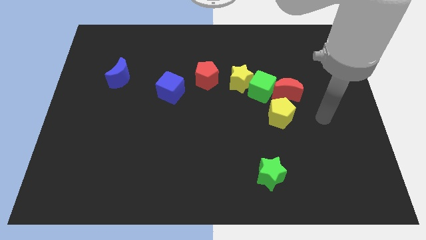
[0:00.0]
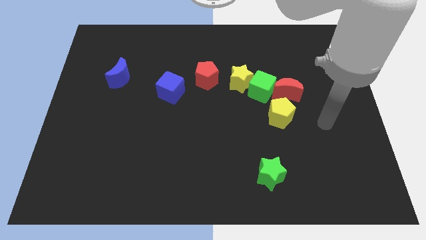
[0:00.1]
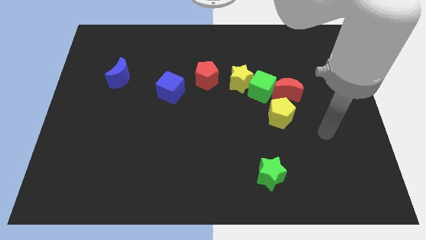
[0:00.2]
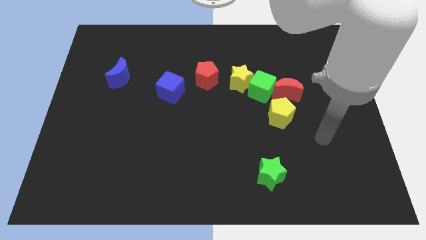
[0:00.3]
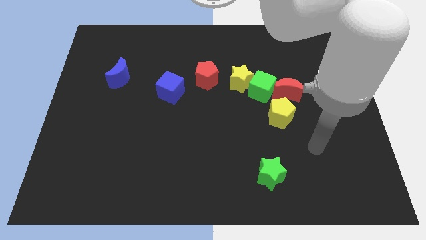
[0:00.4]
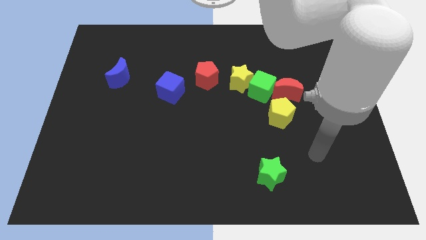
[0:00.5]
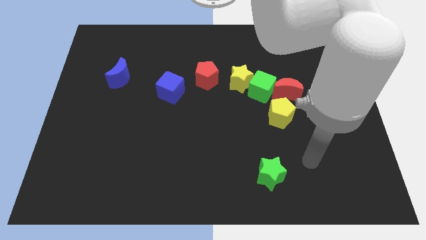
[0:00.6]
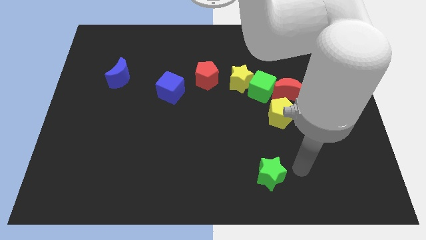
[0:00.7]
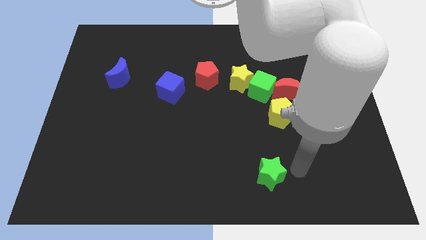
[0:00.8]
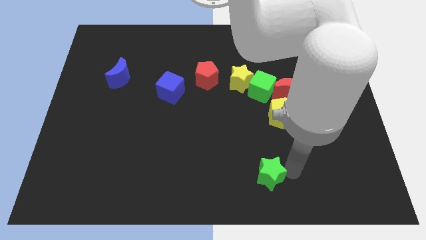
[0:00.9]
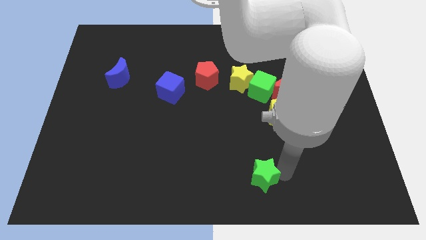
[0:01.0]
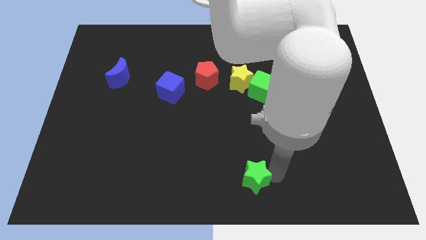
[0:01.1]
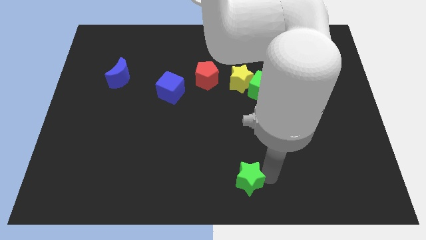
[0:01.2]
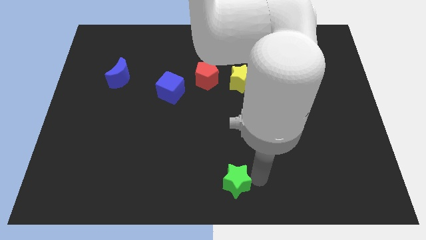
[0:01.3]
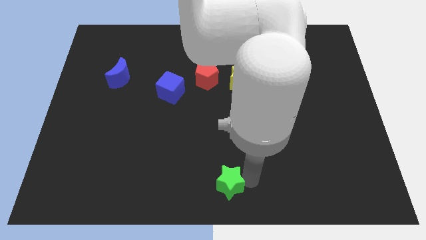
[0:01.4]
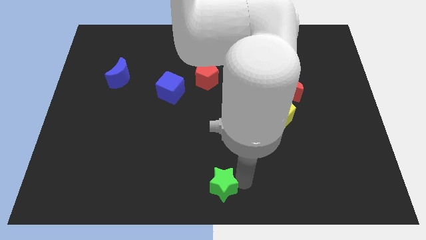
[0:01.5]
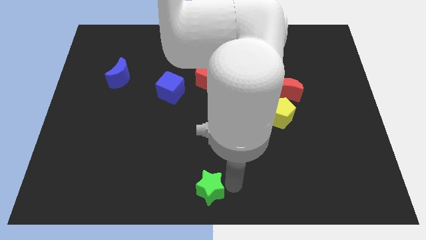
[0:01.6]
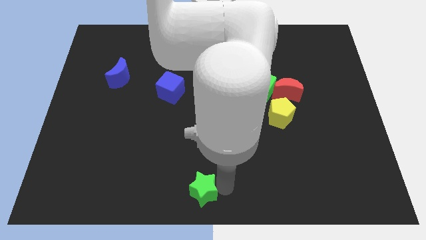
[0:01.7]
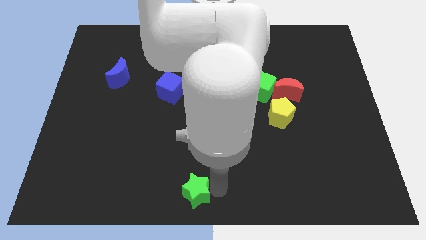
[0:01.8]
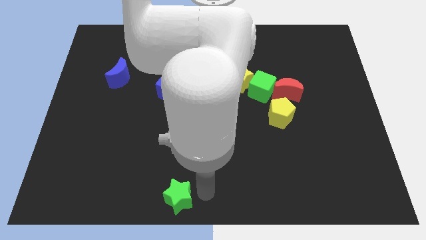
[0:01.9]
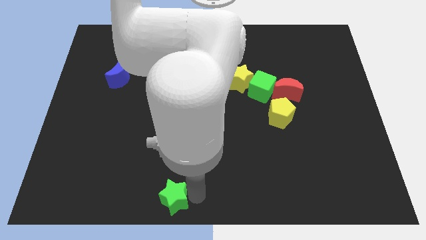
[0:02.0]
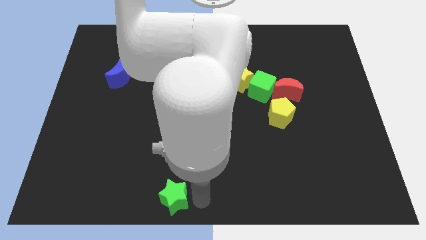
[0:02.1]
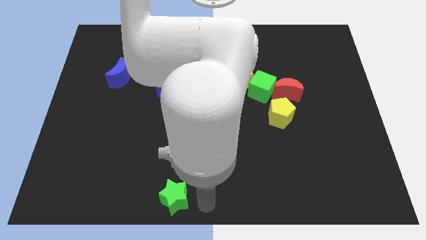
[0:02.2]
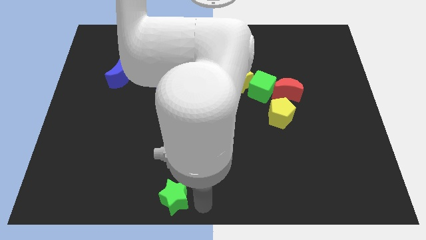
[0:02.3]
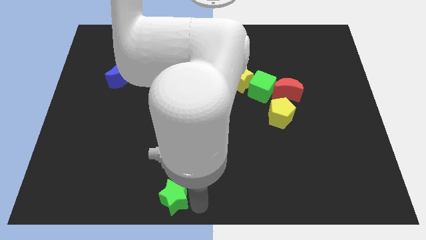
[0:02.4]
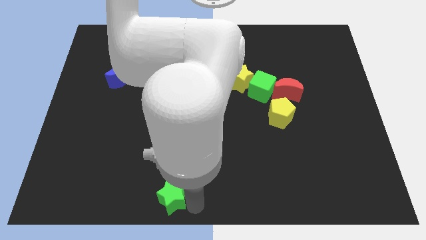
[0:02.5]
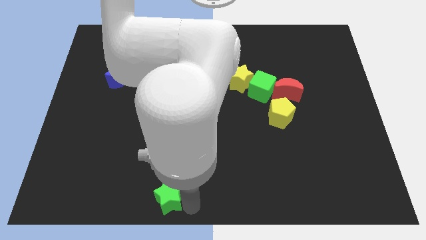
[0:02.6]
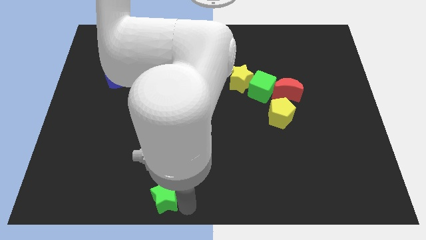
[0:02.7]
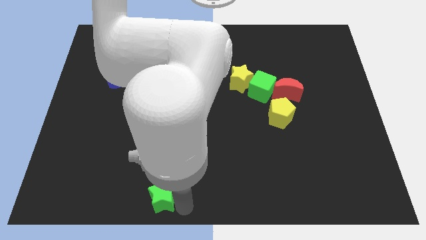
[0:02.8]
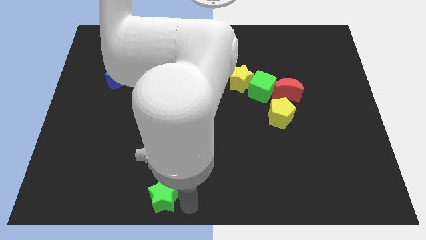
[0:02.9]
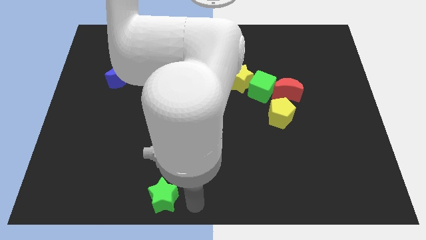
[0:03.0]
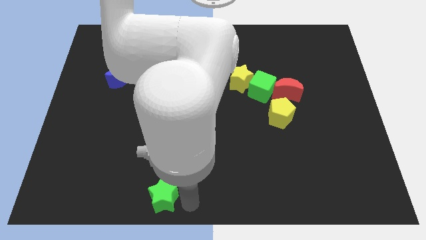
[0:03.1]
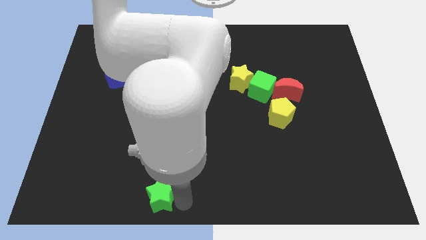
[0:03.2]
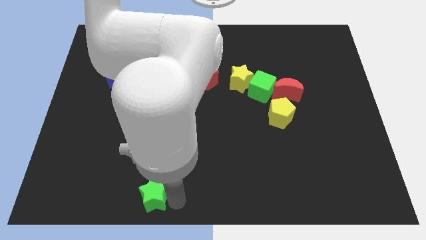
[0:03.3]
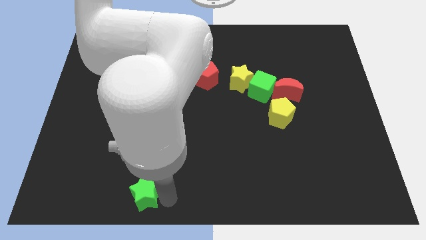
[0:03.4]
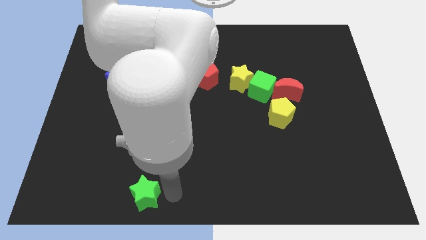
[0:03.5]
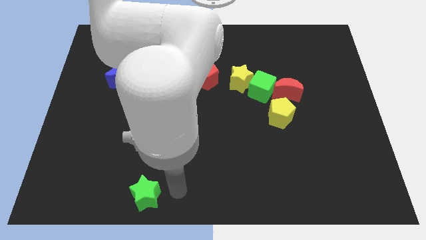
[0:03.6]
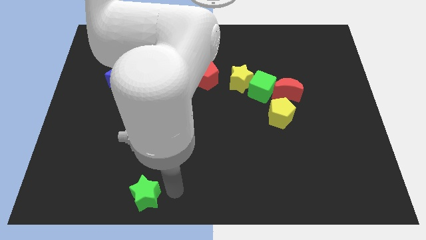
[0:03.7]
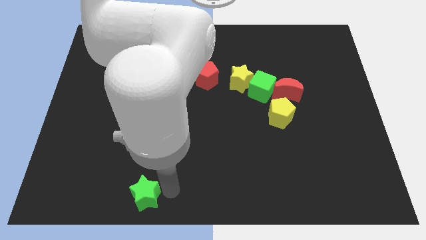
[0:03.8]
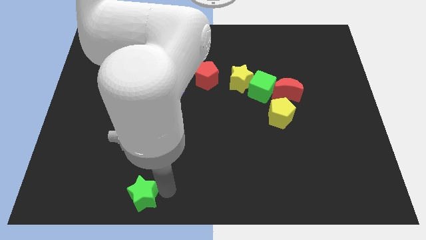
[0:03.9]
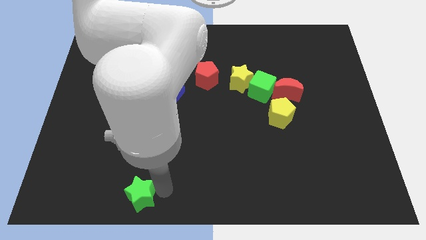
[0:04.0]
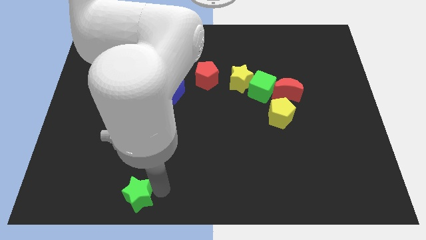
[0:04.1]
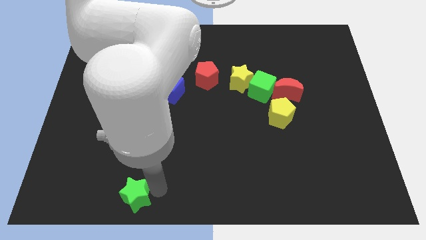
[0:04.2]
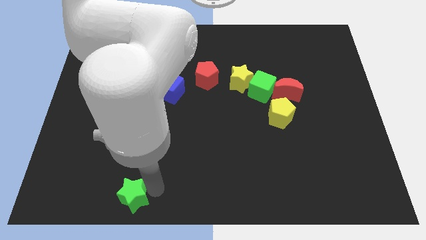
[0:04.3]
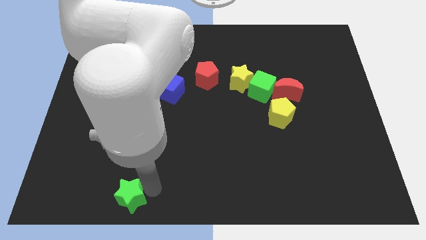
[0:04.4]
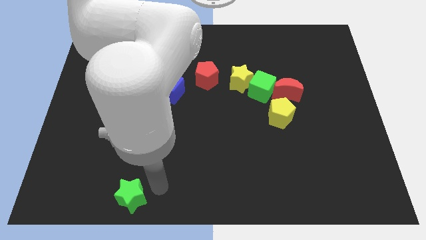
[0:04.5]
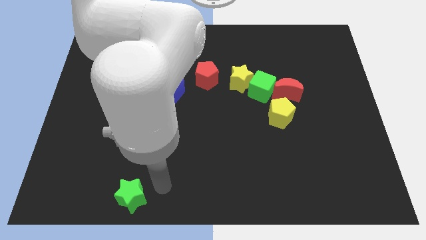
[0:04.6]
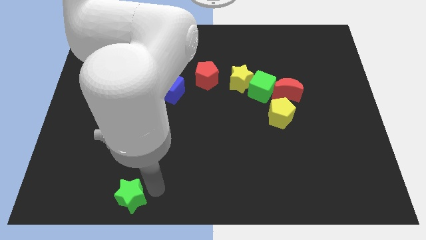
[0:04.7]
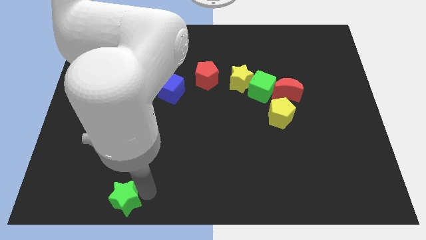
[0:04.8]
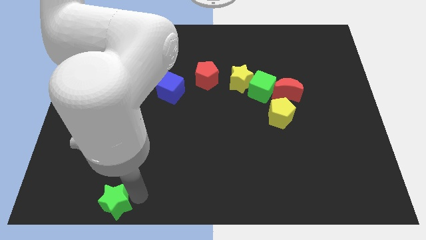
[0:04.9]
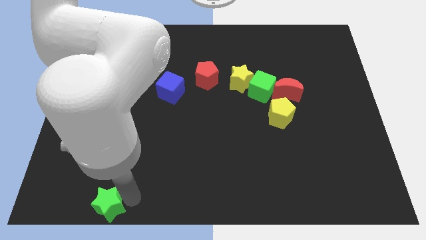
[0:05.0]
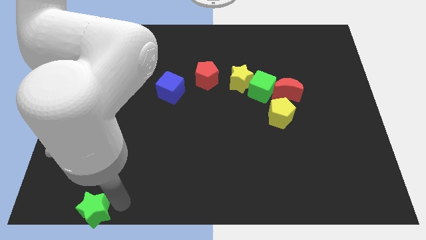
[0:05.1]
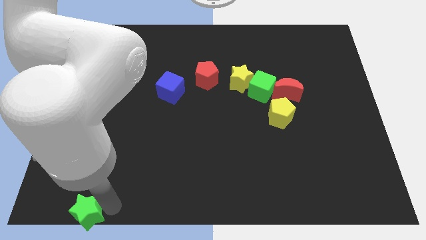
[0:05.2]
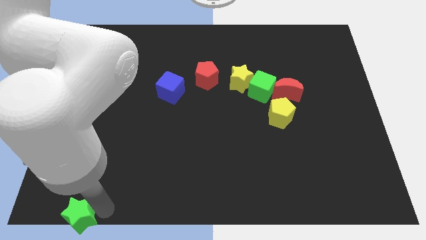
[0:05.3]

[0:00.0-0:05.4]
push the green star to the bottom left

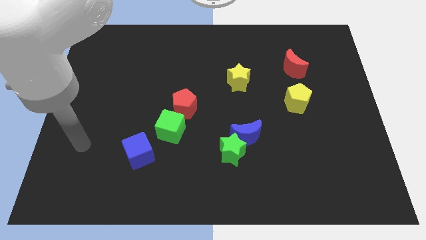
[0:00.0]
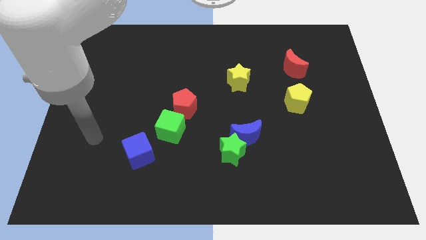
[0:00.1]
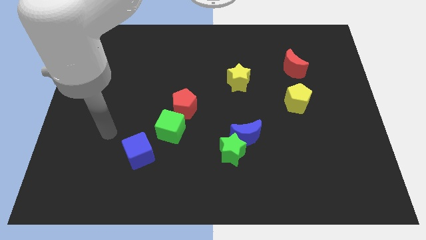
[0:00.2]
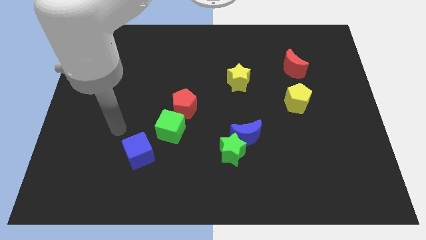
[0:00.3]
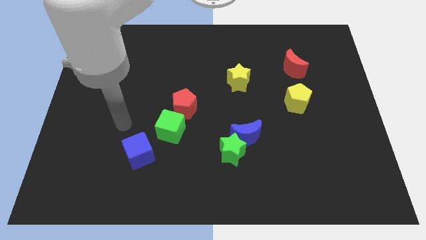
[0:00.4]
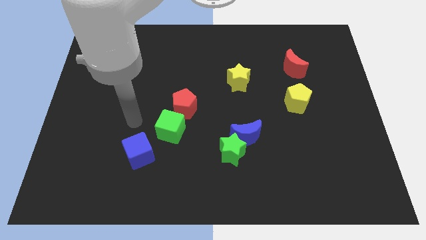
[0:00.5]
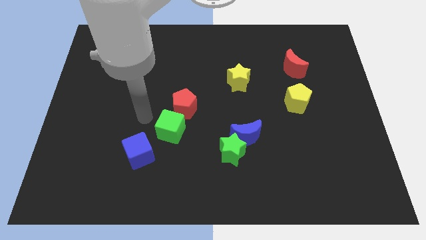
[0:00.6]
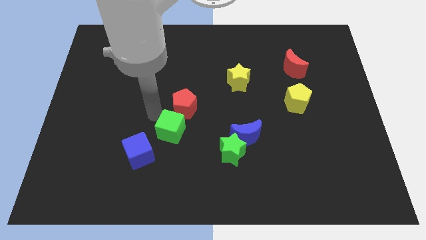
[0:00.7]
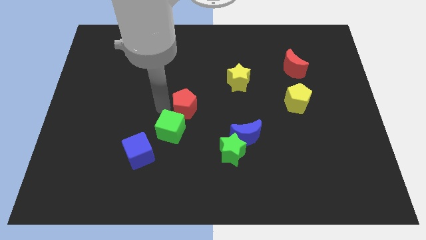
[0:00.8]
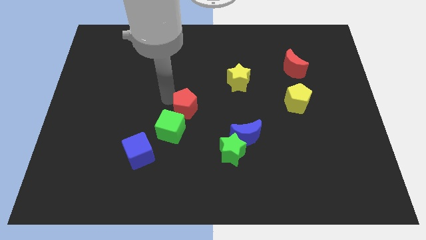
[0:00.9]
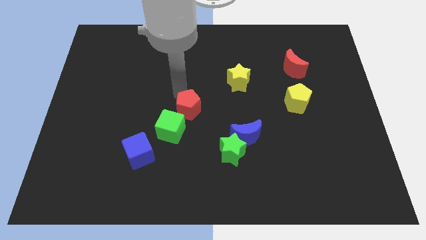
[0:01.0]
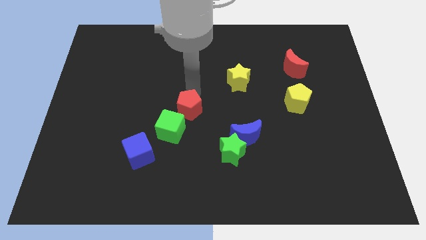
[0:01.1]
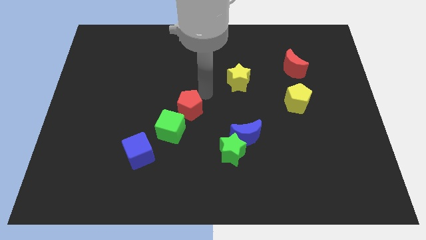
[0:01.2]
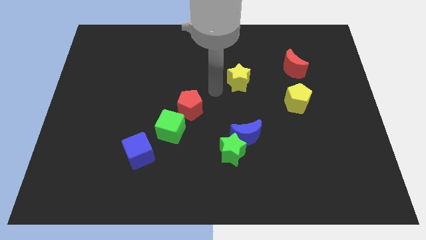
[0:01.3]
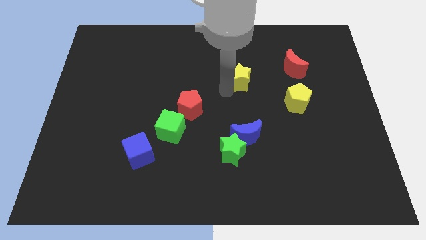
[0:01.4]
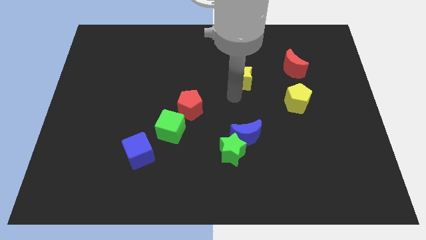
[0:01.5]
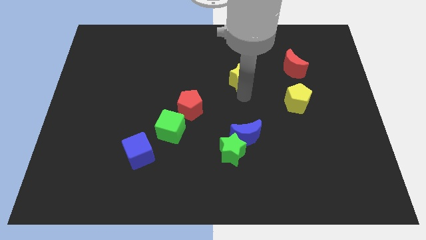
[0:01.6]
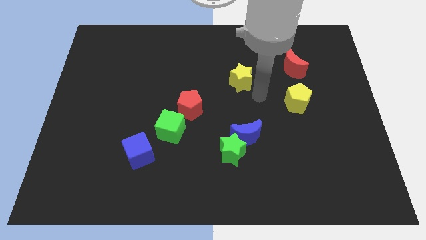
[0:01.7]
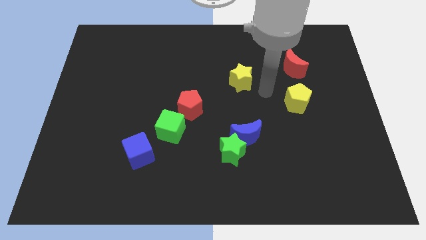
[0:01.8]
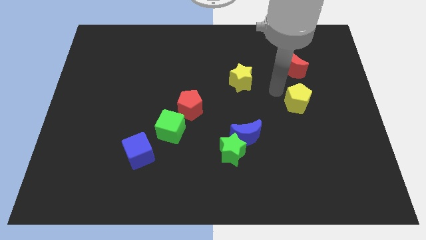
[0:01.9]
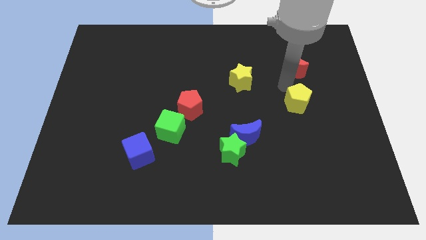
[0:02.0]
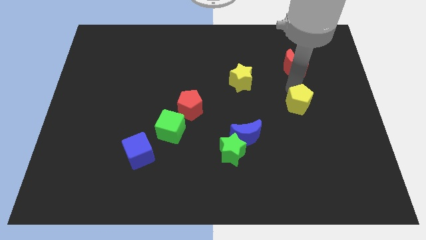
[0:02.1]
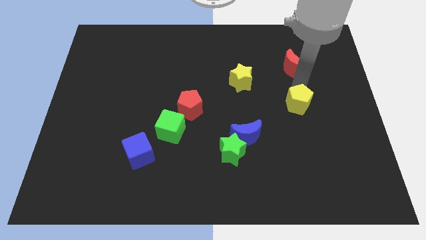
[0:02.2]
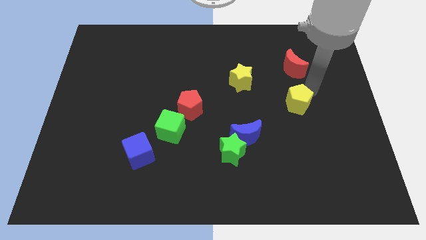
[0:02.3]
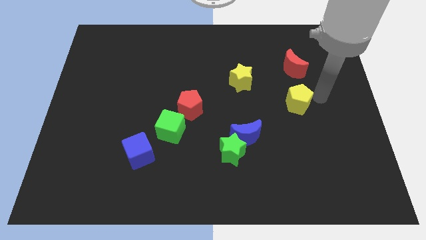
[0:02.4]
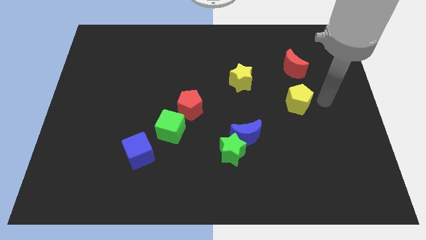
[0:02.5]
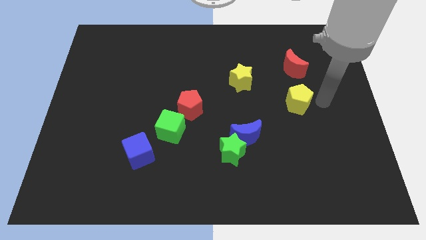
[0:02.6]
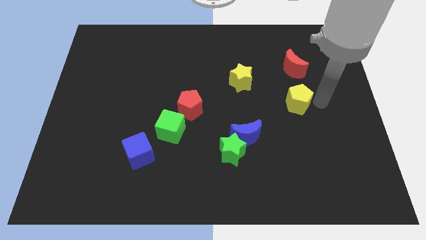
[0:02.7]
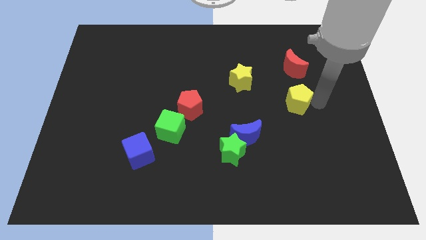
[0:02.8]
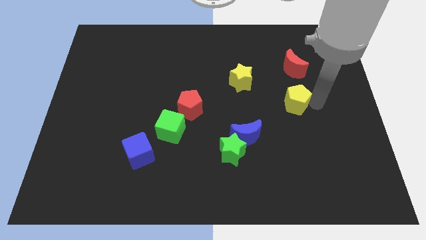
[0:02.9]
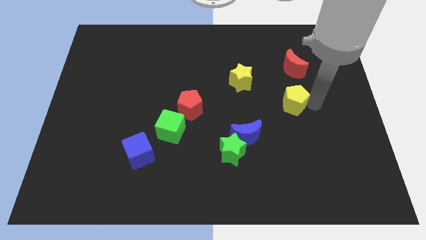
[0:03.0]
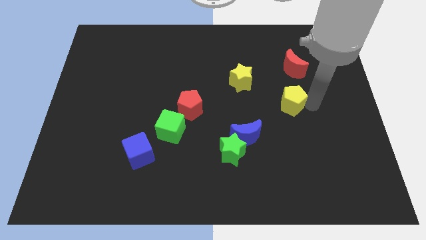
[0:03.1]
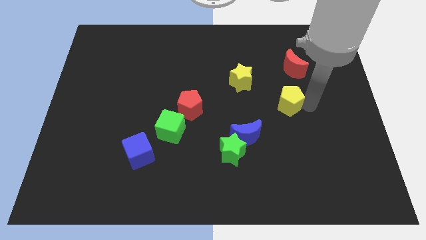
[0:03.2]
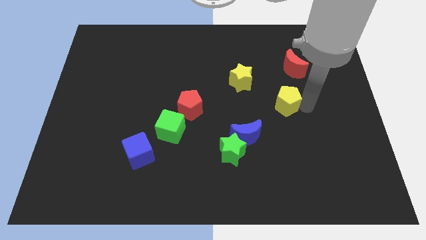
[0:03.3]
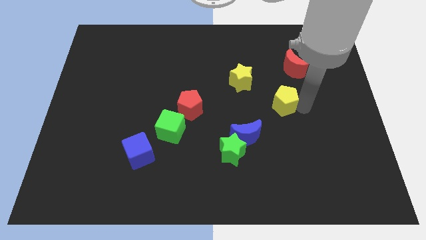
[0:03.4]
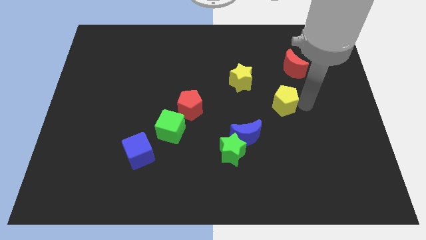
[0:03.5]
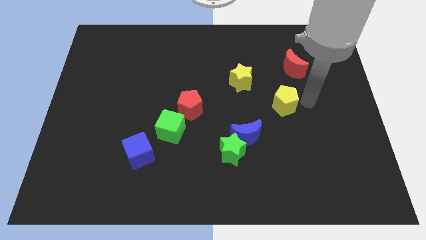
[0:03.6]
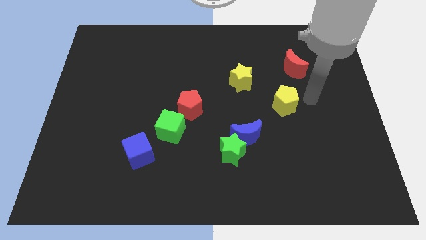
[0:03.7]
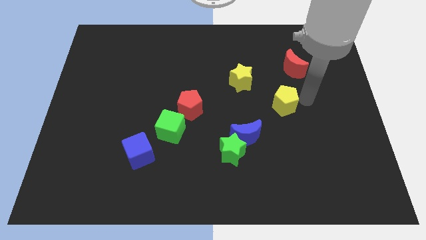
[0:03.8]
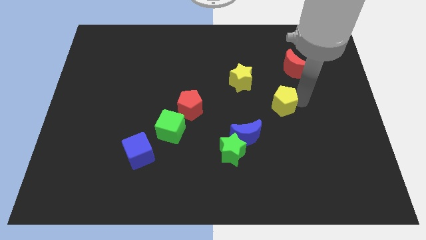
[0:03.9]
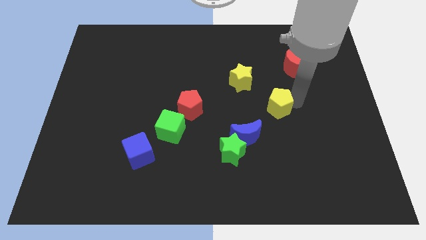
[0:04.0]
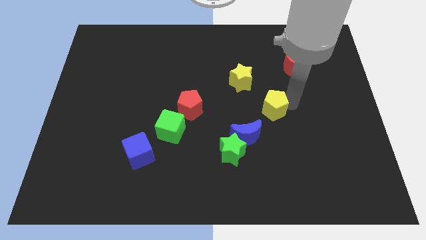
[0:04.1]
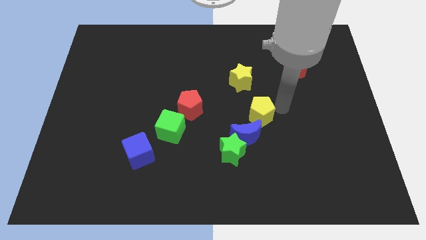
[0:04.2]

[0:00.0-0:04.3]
slide the yellow pentagon to the middle of the board
